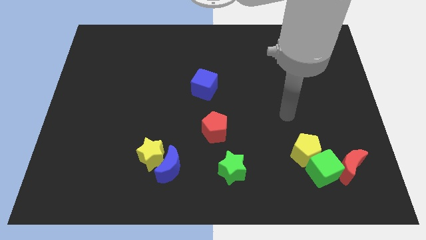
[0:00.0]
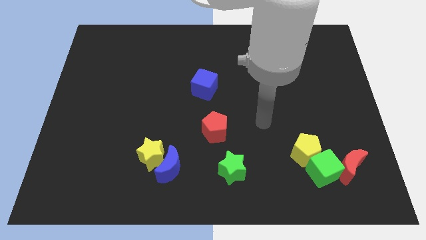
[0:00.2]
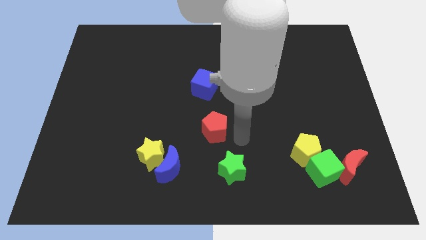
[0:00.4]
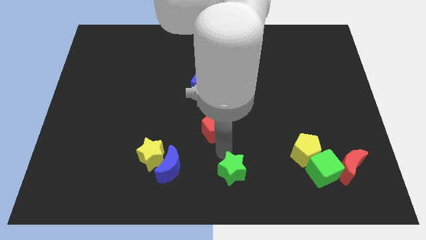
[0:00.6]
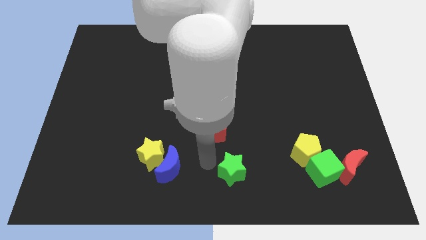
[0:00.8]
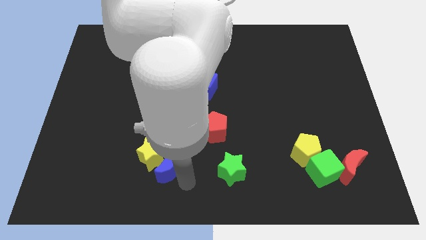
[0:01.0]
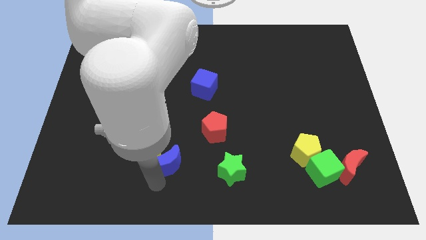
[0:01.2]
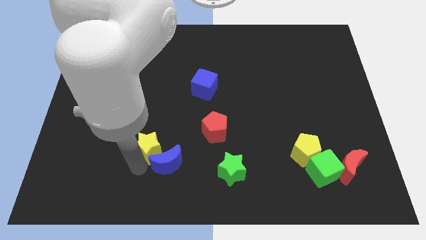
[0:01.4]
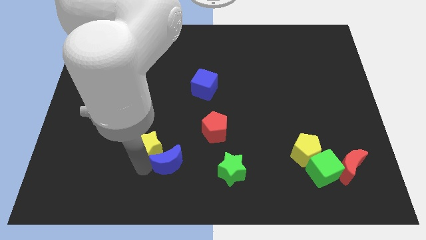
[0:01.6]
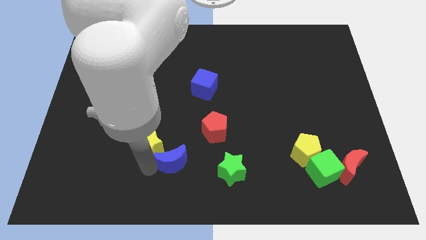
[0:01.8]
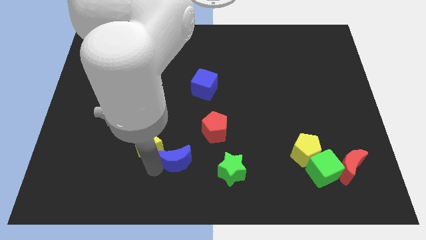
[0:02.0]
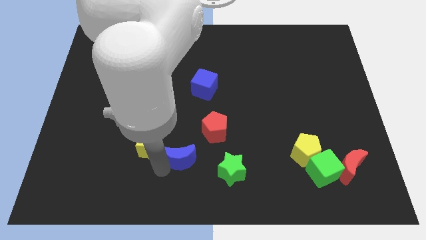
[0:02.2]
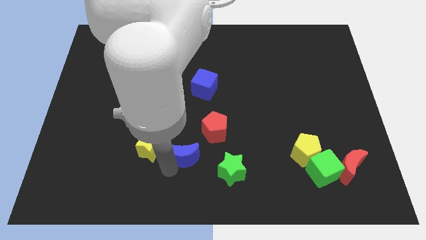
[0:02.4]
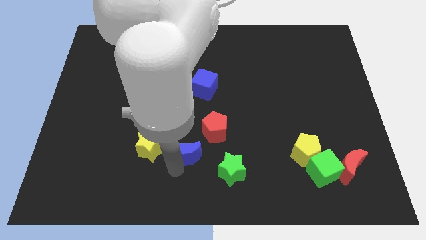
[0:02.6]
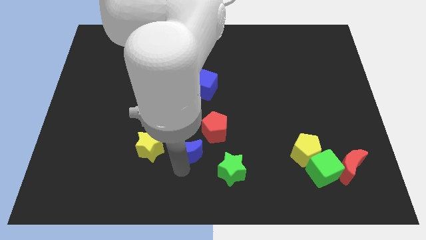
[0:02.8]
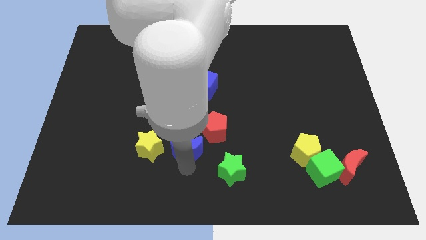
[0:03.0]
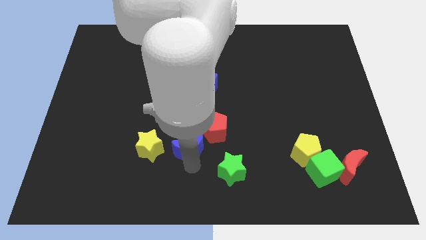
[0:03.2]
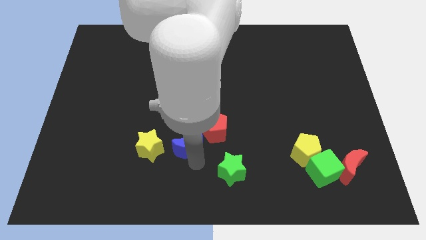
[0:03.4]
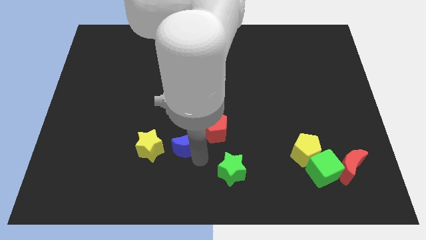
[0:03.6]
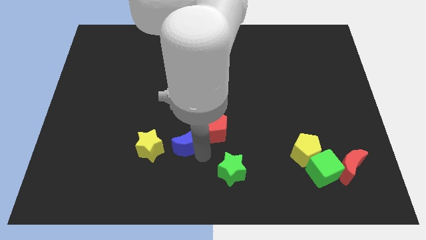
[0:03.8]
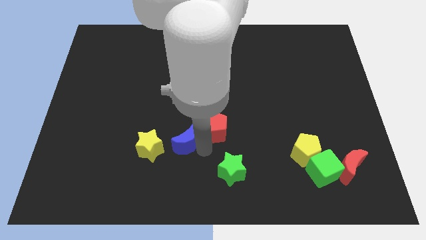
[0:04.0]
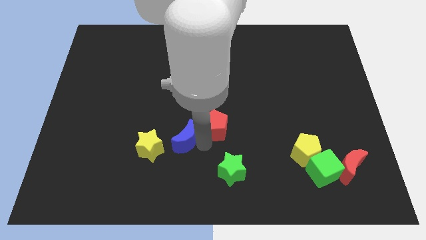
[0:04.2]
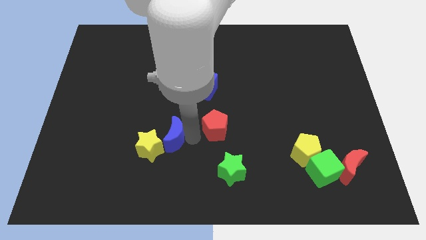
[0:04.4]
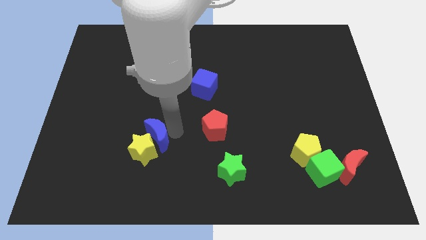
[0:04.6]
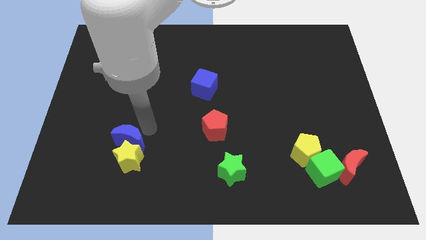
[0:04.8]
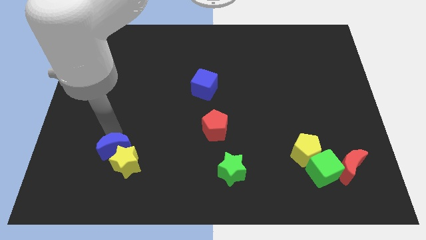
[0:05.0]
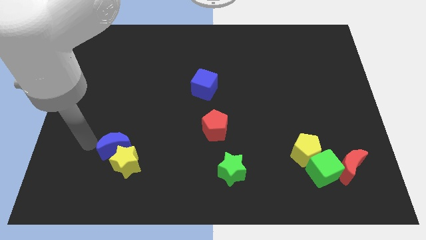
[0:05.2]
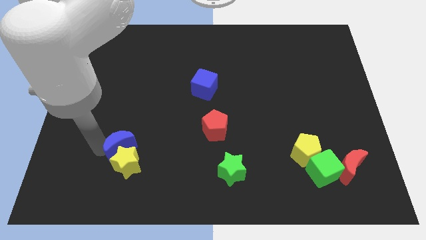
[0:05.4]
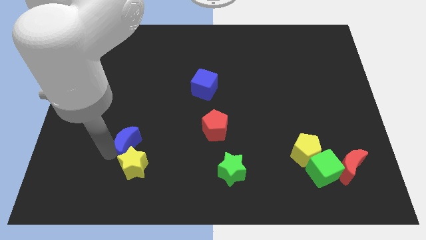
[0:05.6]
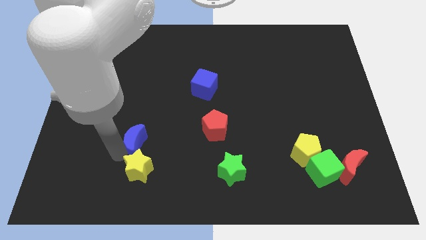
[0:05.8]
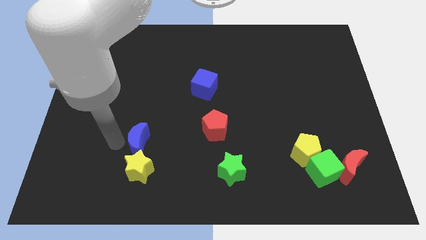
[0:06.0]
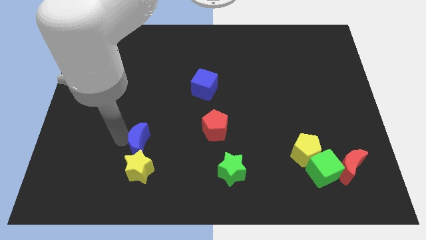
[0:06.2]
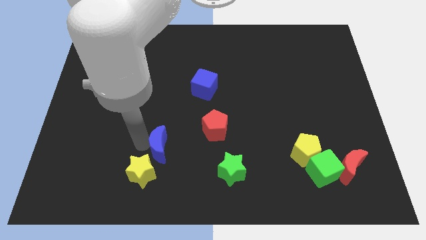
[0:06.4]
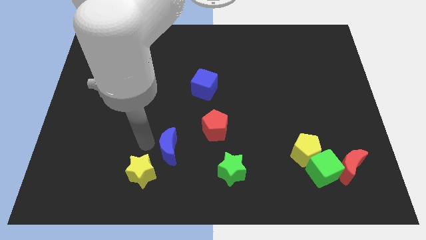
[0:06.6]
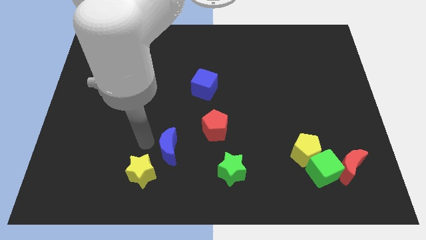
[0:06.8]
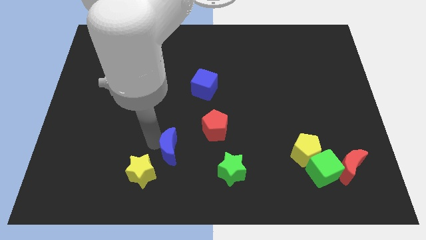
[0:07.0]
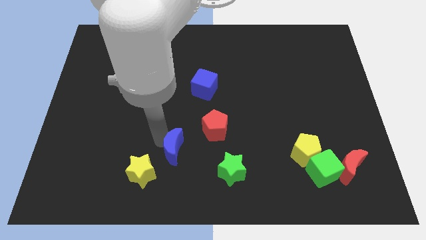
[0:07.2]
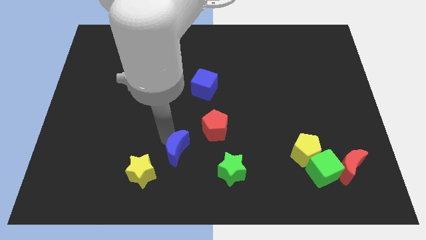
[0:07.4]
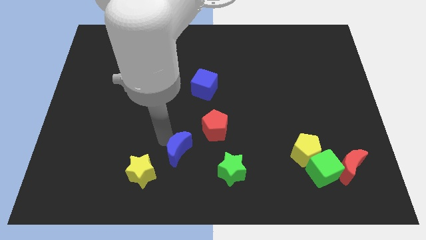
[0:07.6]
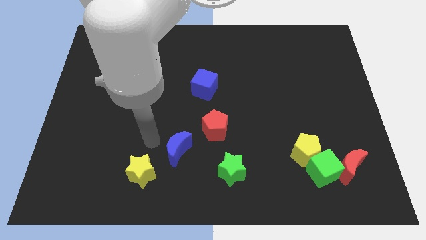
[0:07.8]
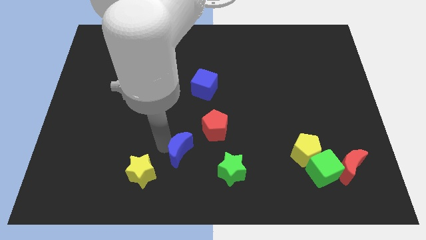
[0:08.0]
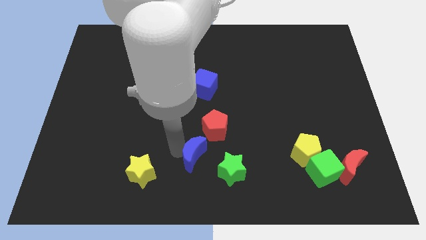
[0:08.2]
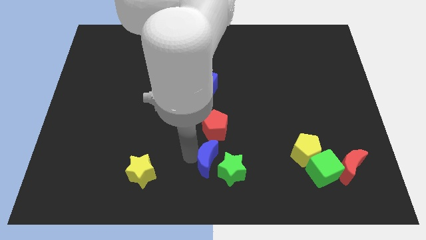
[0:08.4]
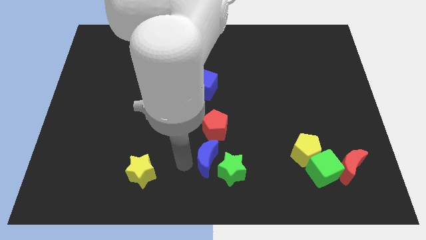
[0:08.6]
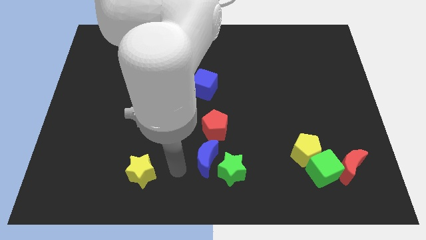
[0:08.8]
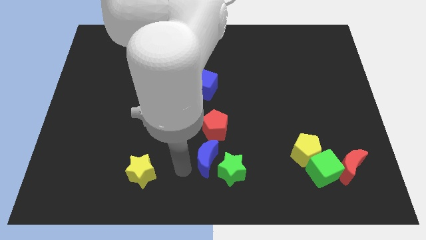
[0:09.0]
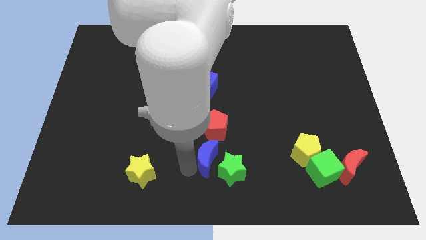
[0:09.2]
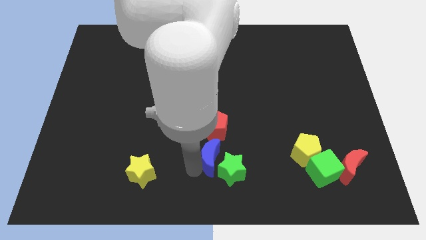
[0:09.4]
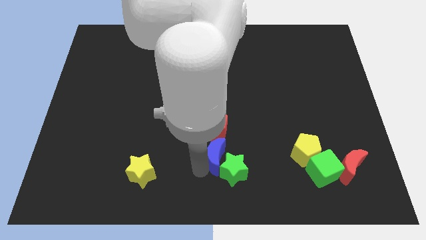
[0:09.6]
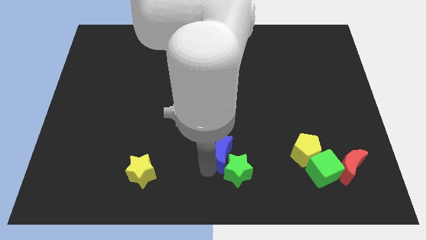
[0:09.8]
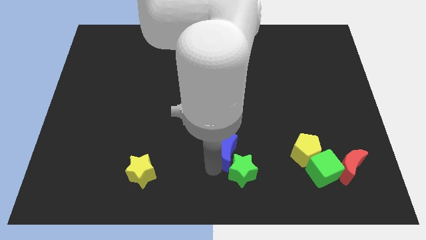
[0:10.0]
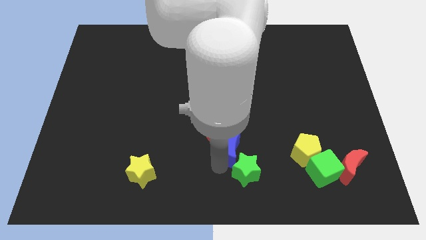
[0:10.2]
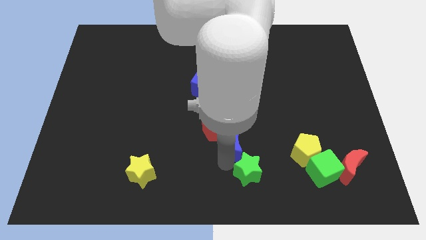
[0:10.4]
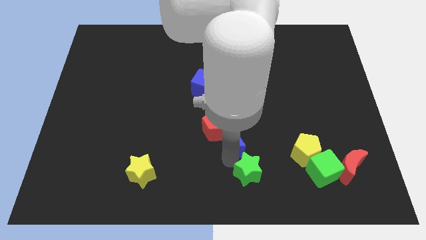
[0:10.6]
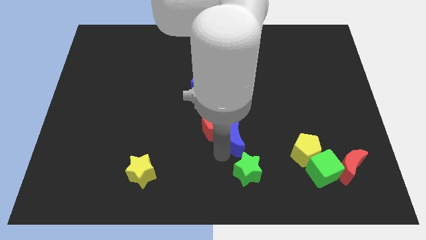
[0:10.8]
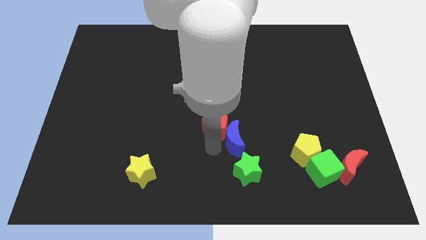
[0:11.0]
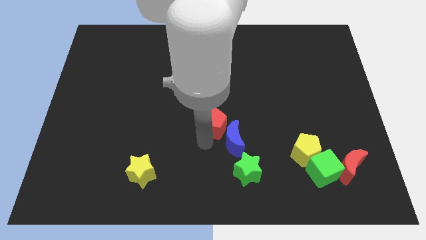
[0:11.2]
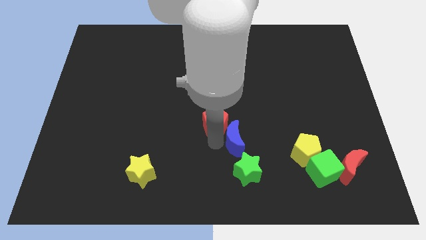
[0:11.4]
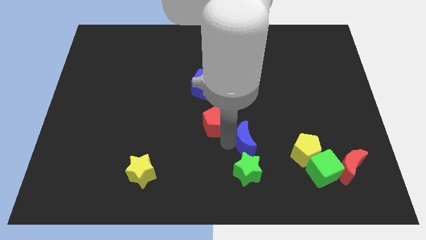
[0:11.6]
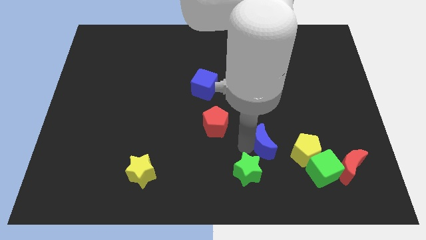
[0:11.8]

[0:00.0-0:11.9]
move the blue moon to the top left side of the yellow pentagon

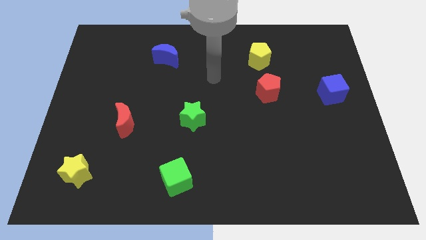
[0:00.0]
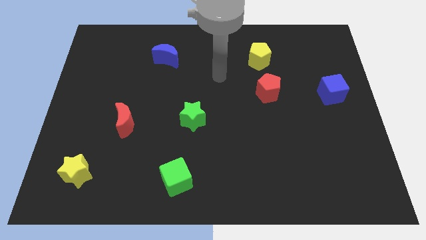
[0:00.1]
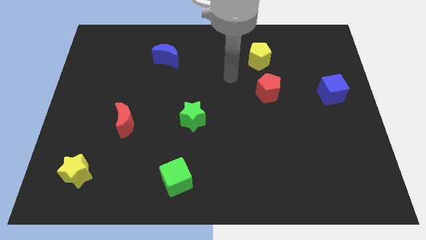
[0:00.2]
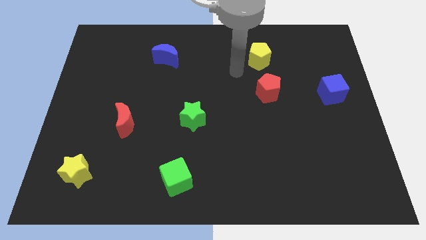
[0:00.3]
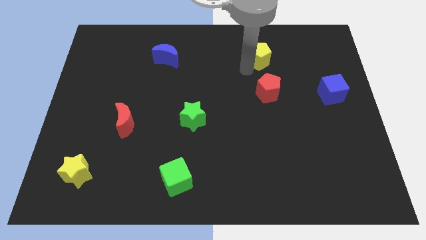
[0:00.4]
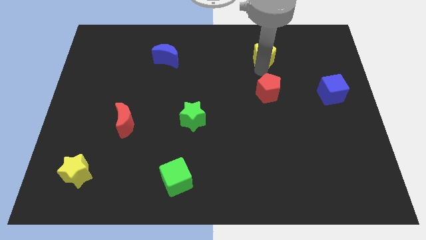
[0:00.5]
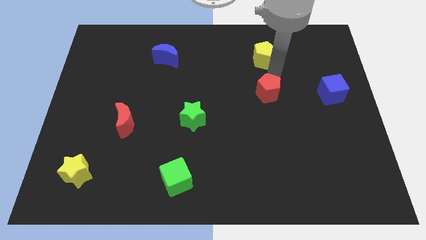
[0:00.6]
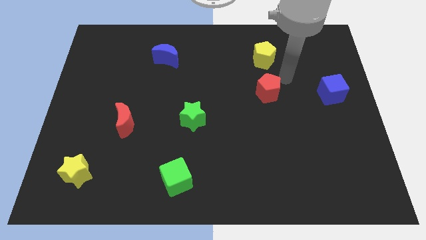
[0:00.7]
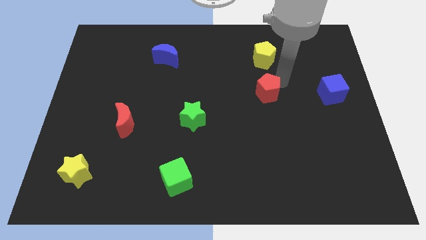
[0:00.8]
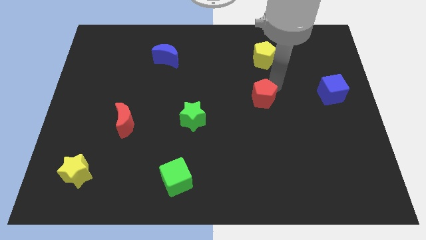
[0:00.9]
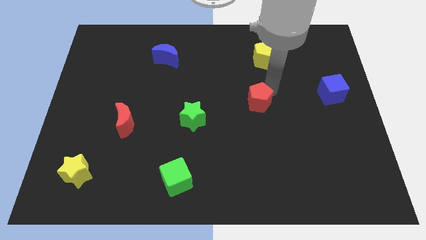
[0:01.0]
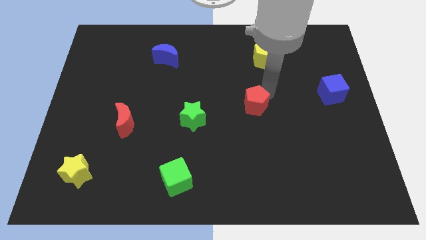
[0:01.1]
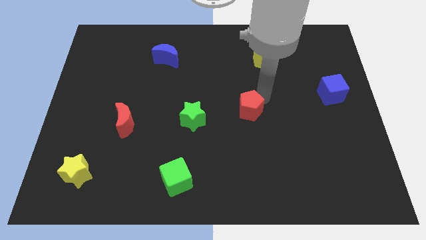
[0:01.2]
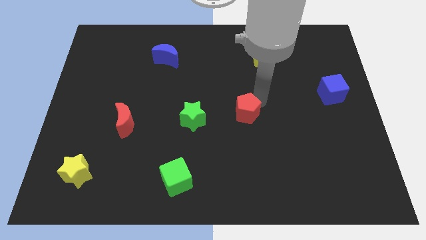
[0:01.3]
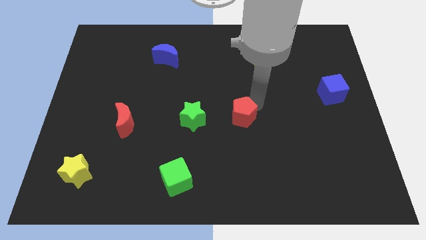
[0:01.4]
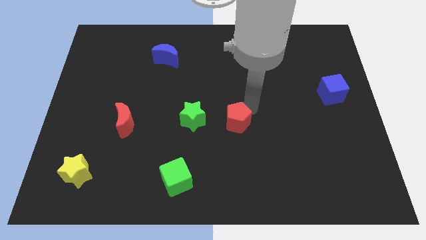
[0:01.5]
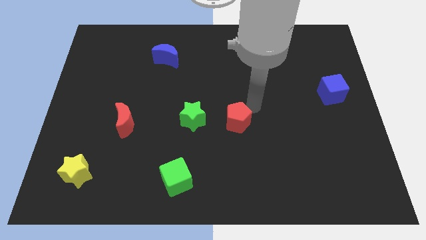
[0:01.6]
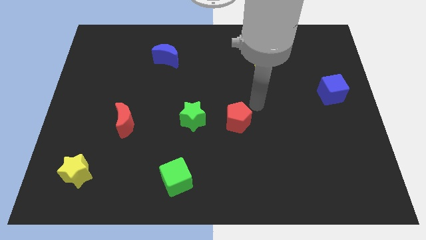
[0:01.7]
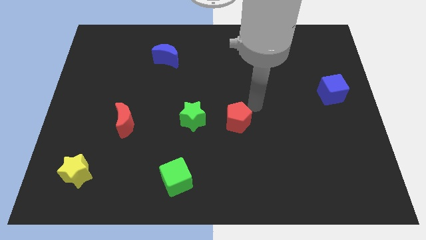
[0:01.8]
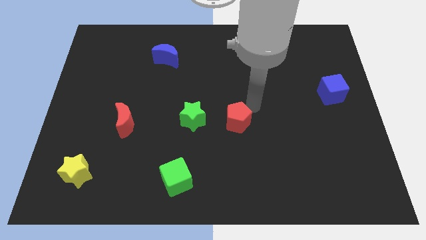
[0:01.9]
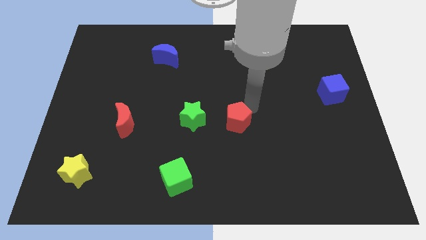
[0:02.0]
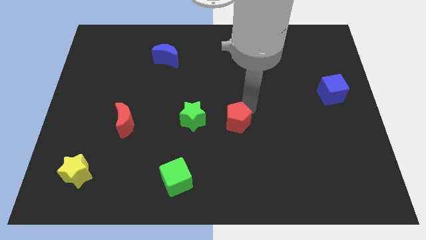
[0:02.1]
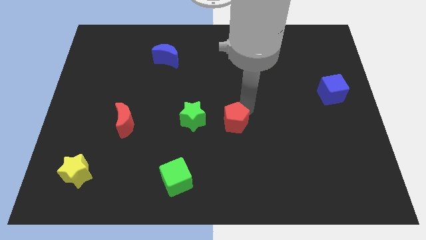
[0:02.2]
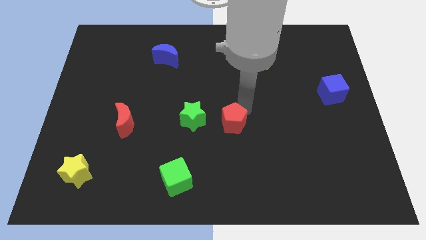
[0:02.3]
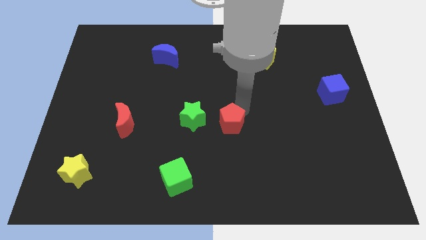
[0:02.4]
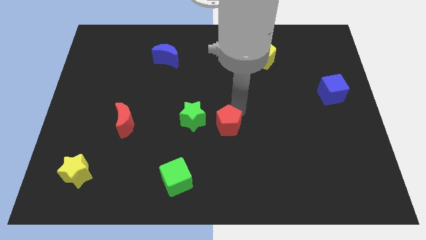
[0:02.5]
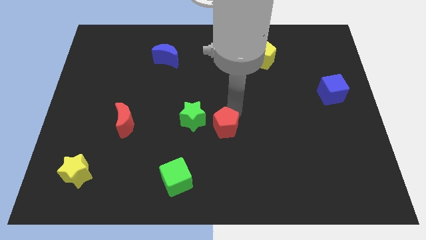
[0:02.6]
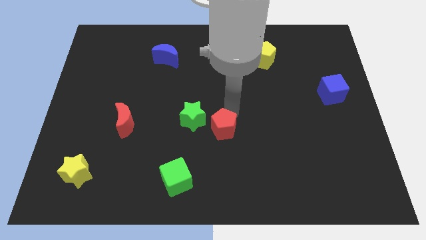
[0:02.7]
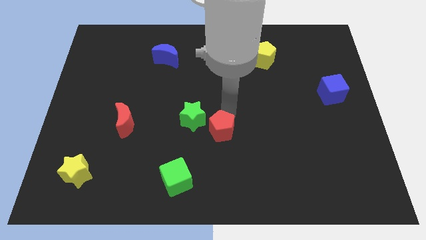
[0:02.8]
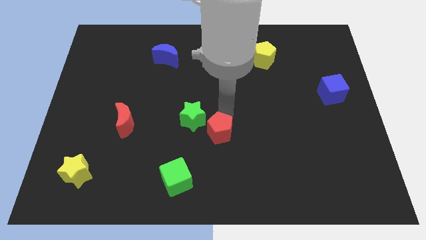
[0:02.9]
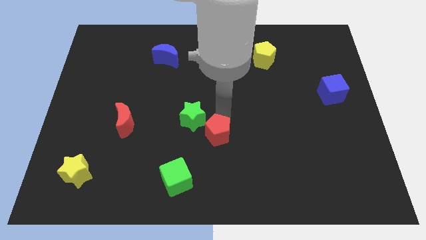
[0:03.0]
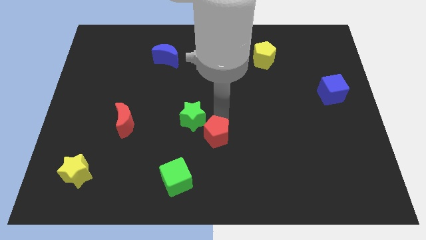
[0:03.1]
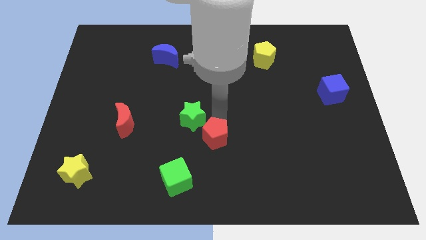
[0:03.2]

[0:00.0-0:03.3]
move the red pentagon to the bottom of the green star
